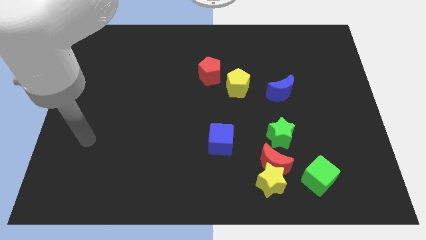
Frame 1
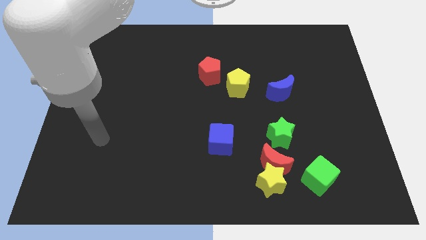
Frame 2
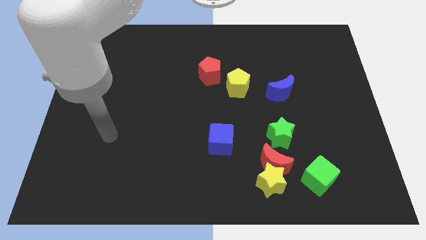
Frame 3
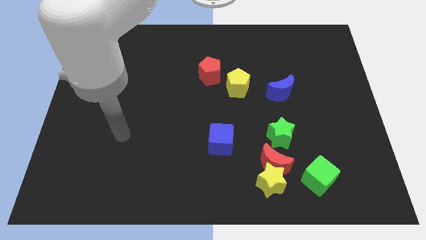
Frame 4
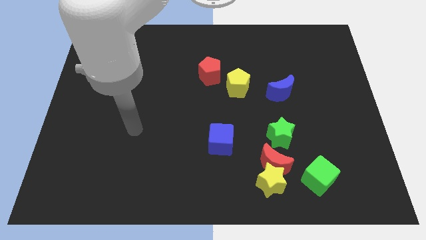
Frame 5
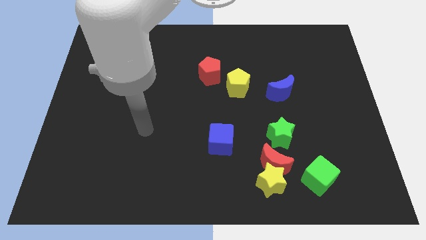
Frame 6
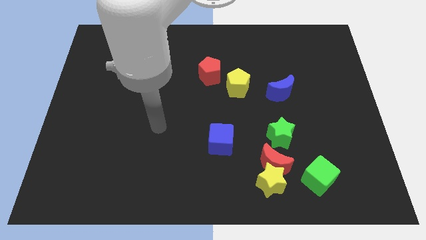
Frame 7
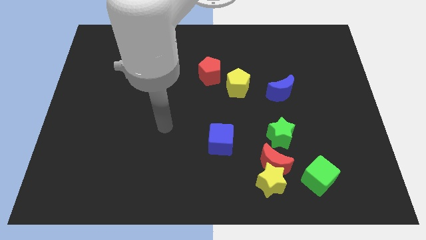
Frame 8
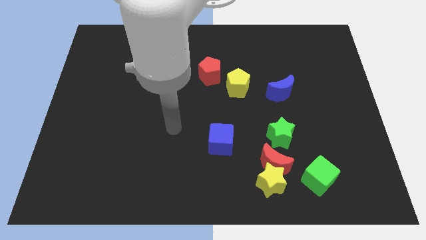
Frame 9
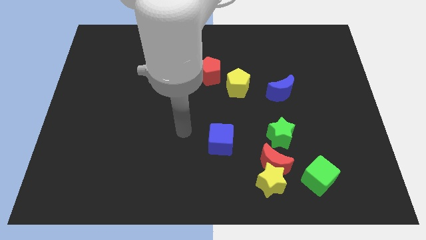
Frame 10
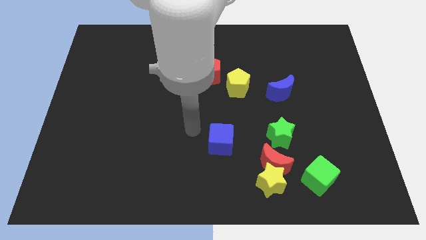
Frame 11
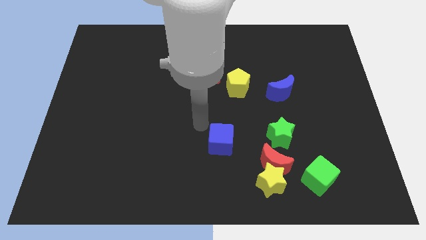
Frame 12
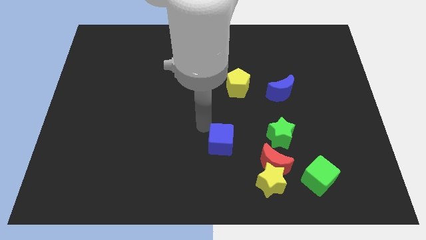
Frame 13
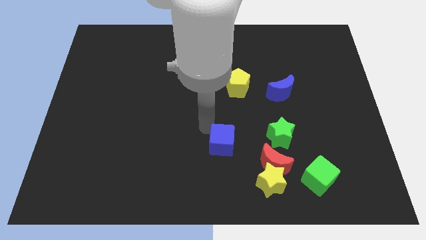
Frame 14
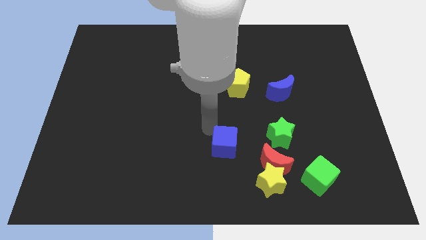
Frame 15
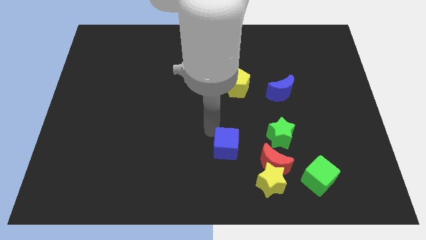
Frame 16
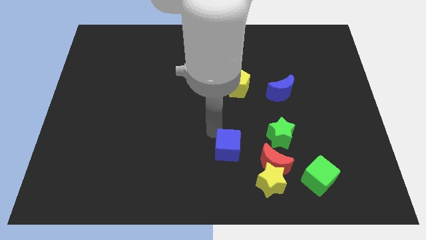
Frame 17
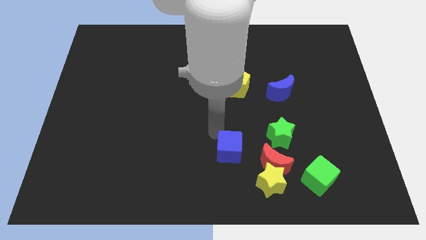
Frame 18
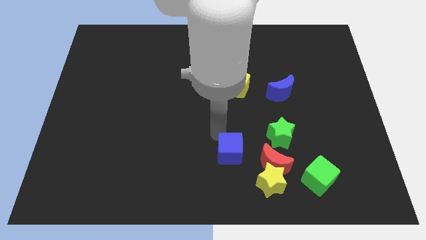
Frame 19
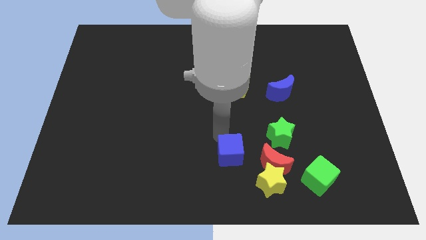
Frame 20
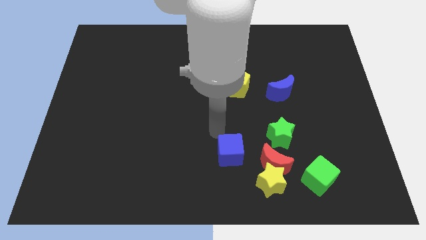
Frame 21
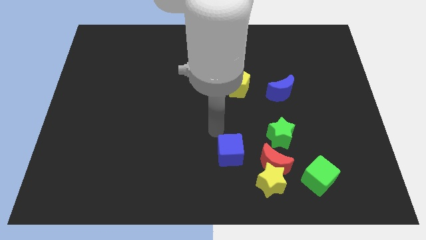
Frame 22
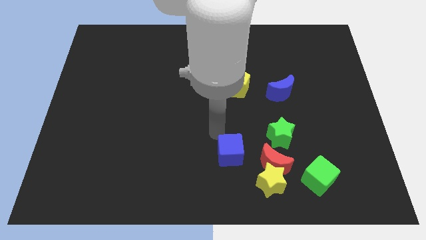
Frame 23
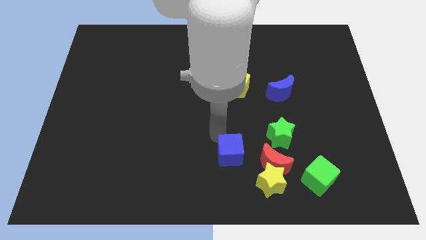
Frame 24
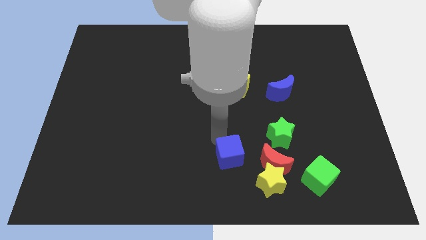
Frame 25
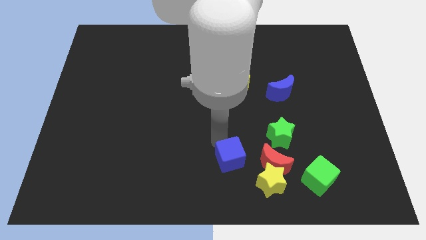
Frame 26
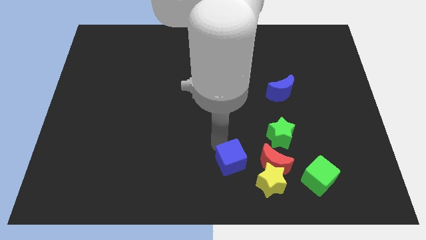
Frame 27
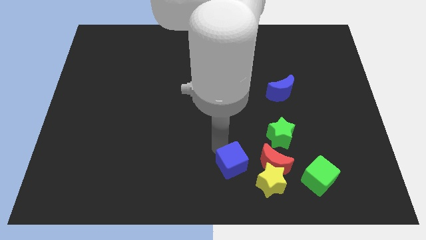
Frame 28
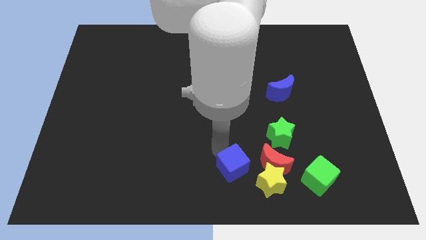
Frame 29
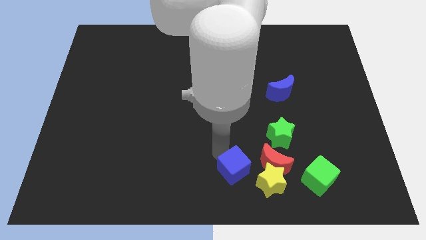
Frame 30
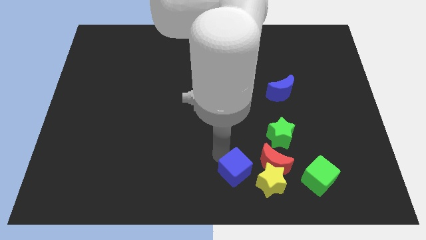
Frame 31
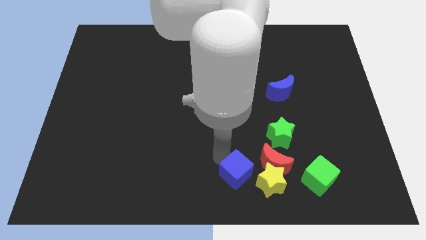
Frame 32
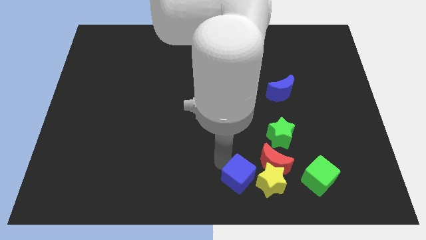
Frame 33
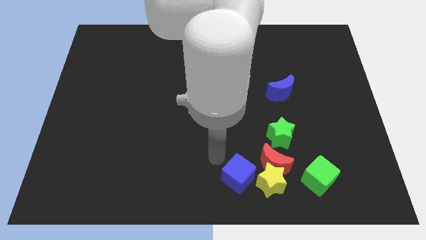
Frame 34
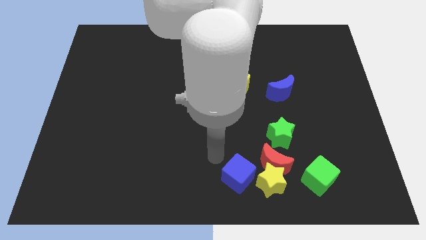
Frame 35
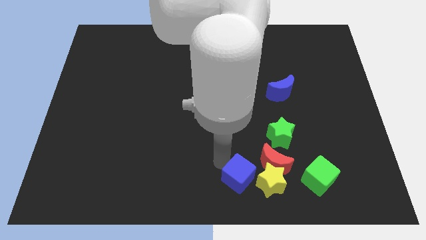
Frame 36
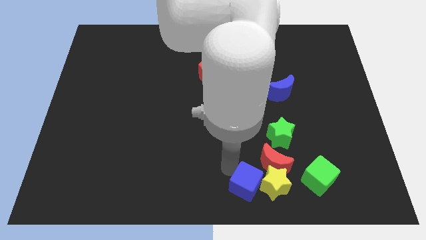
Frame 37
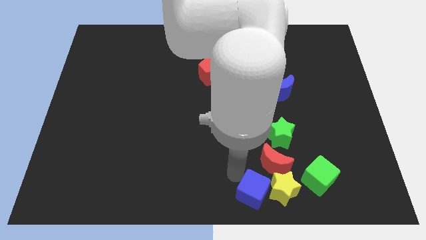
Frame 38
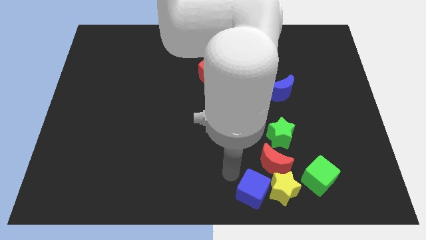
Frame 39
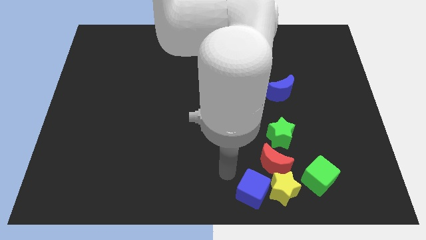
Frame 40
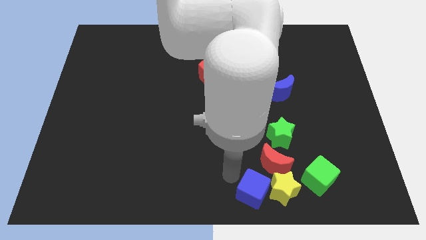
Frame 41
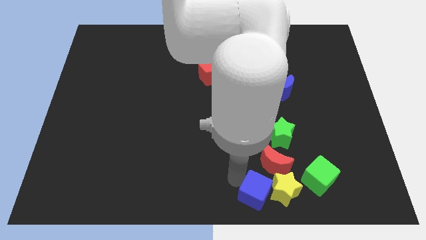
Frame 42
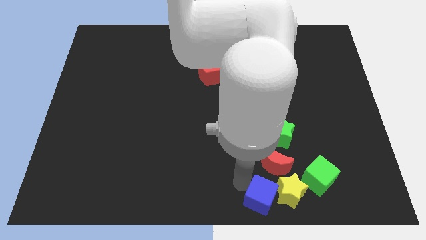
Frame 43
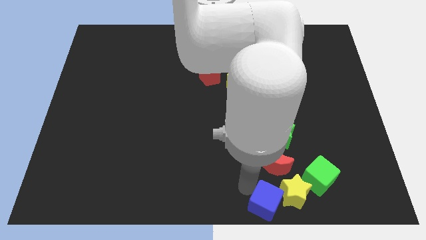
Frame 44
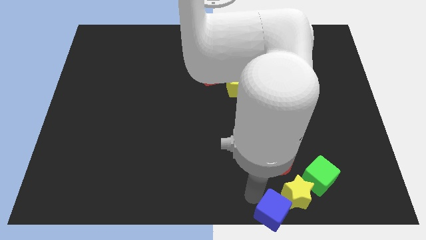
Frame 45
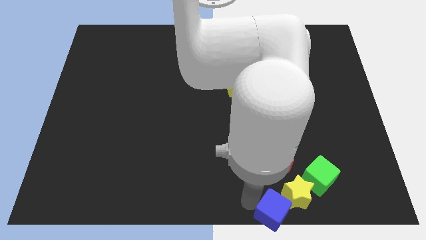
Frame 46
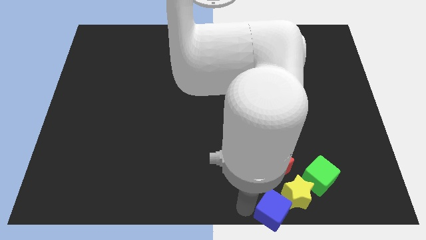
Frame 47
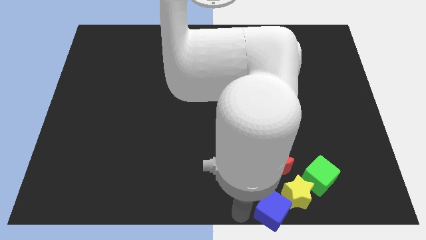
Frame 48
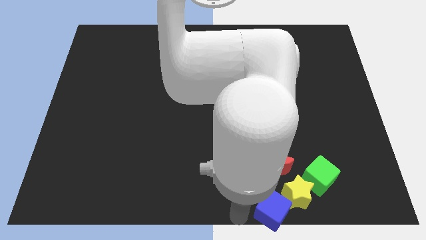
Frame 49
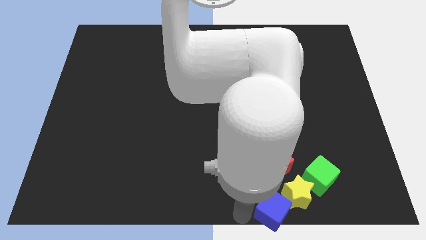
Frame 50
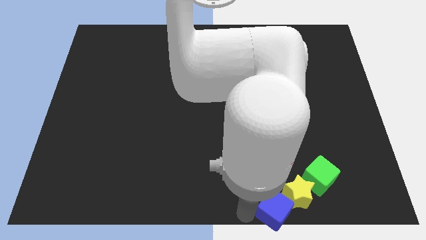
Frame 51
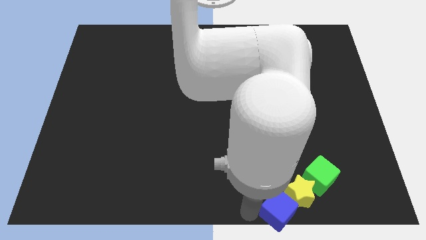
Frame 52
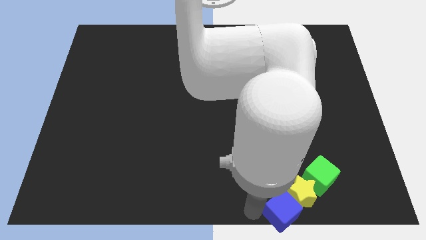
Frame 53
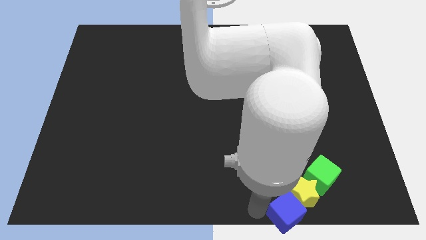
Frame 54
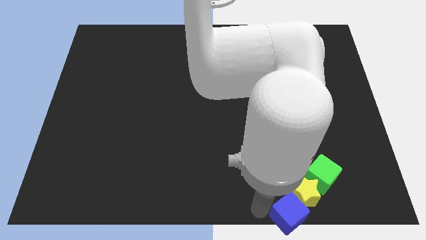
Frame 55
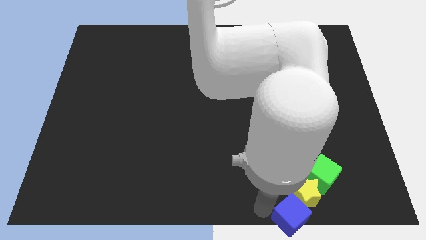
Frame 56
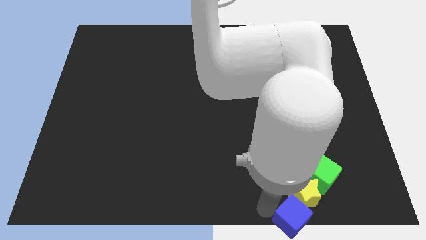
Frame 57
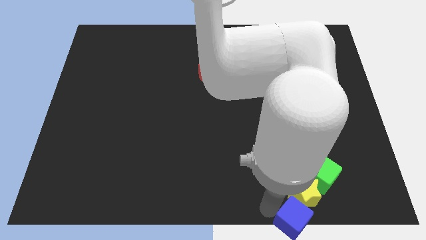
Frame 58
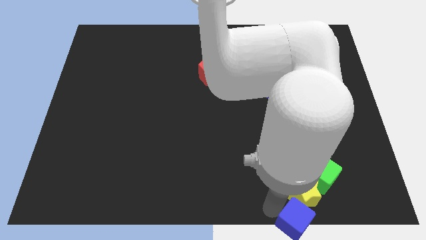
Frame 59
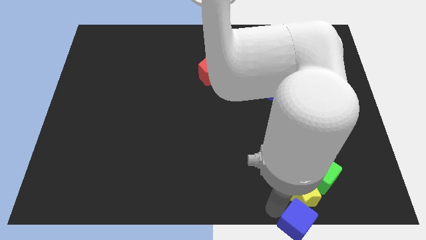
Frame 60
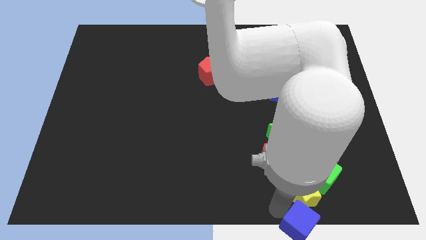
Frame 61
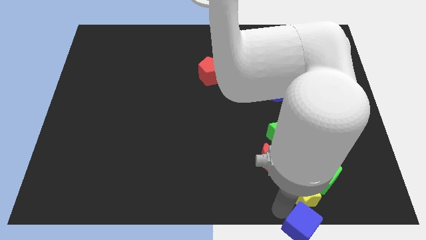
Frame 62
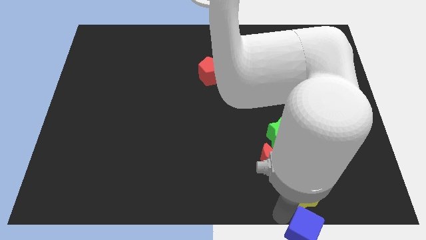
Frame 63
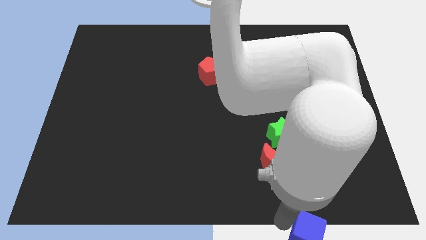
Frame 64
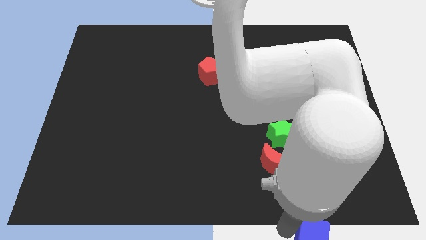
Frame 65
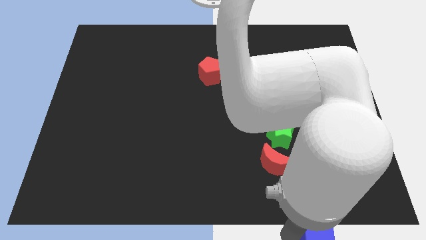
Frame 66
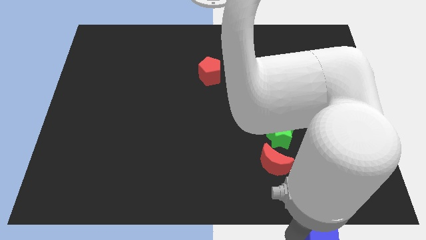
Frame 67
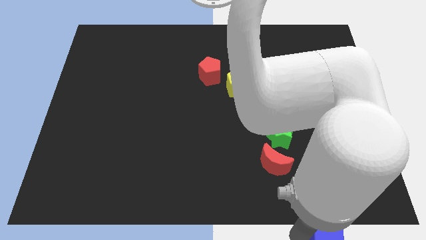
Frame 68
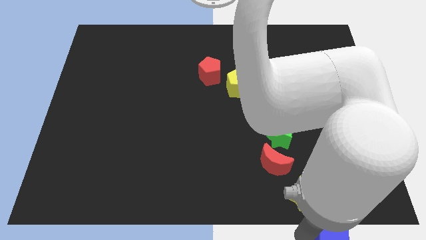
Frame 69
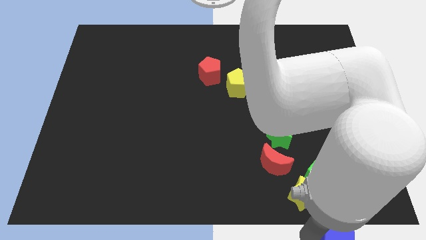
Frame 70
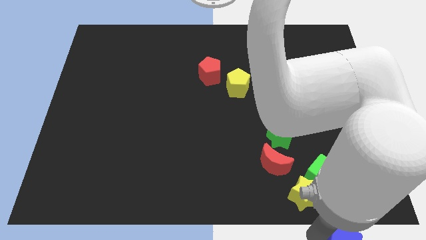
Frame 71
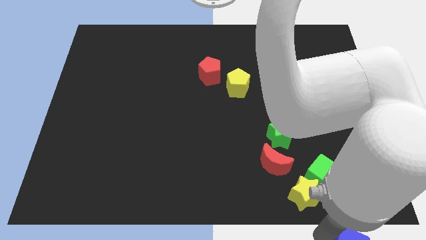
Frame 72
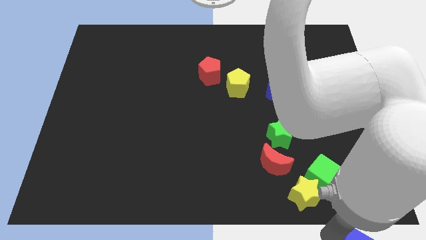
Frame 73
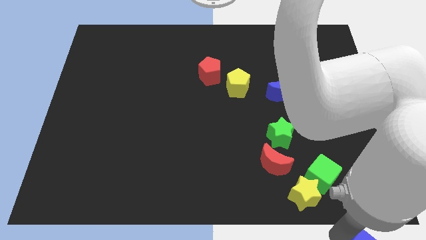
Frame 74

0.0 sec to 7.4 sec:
put the blue cube to the bottom right corner
